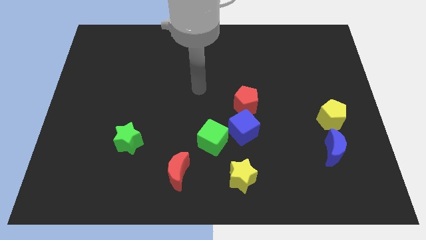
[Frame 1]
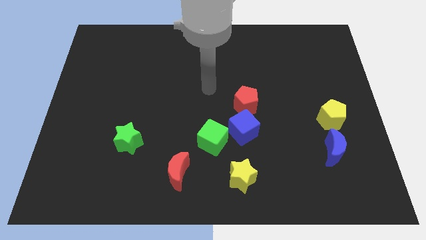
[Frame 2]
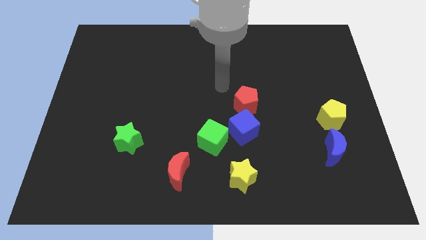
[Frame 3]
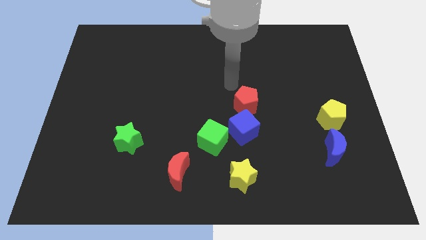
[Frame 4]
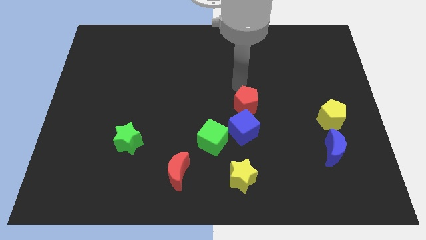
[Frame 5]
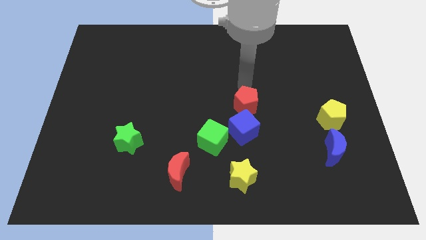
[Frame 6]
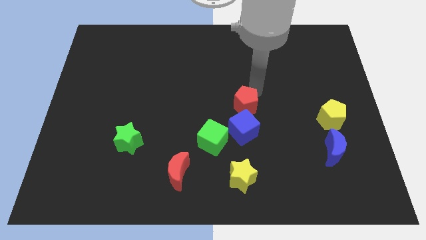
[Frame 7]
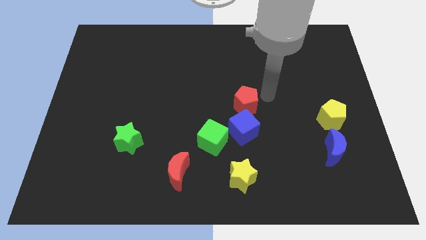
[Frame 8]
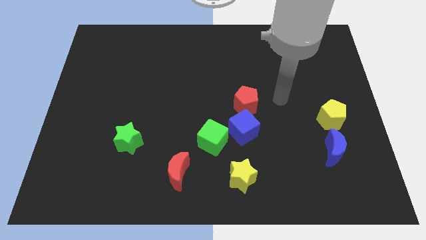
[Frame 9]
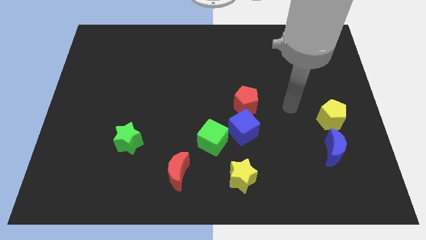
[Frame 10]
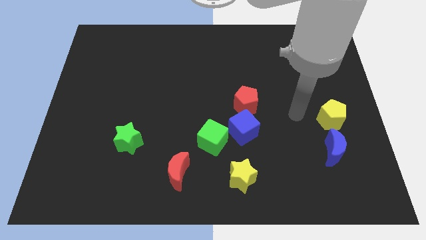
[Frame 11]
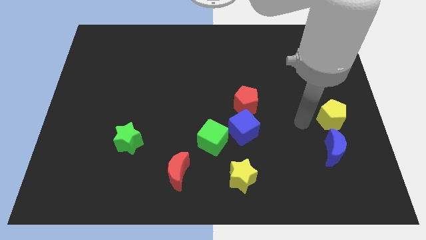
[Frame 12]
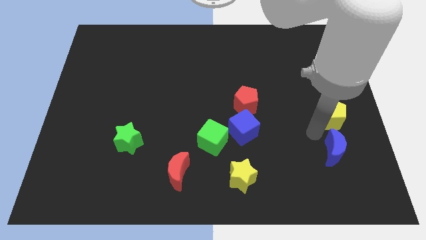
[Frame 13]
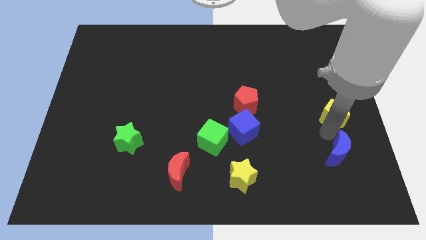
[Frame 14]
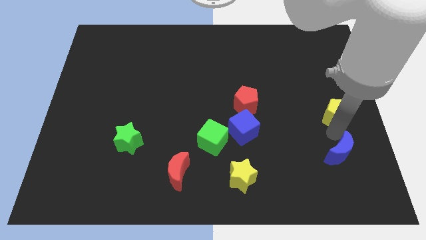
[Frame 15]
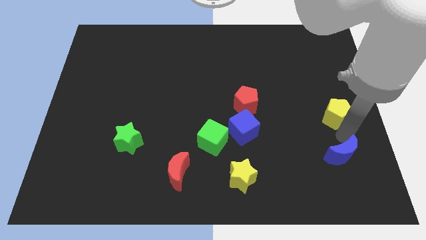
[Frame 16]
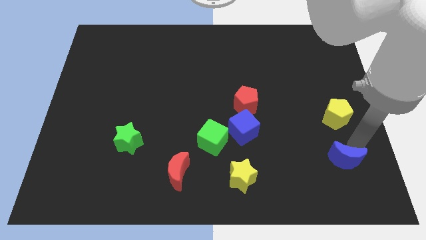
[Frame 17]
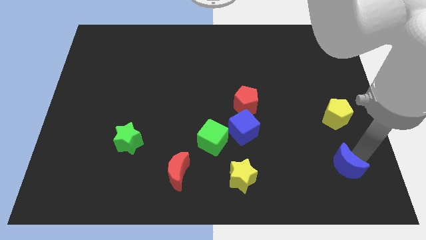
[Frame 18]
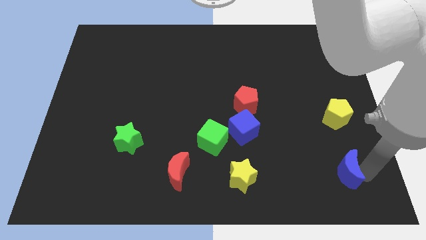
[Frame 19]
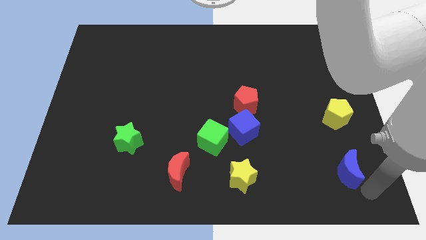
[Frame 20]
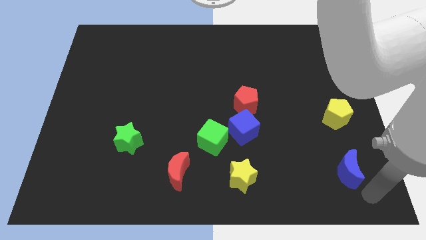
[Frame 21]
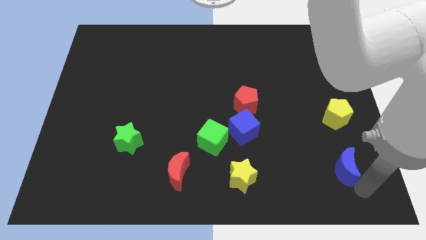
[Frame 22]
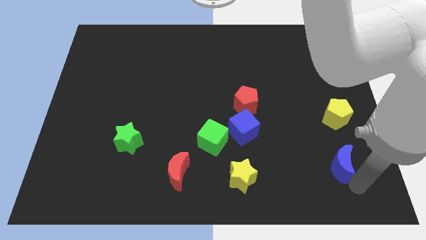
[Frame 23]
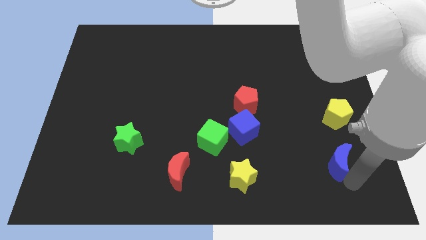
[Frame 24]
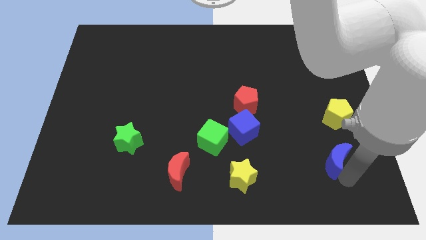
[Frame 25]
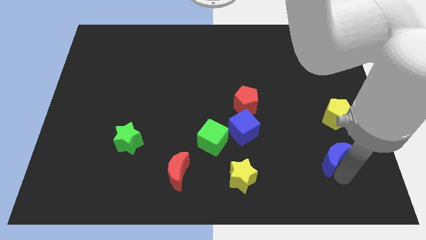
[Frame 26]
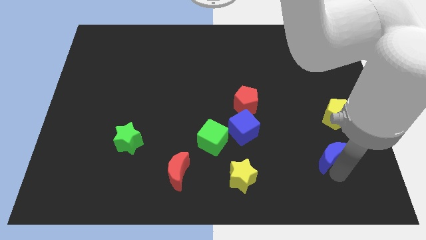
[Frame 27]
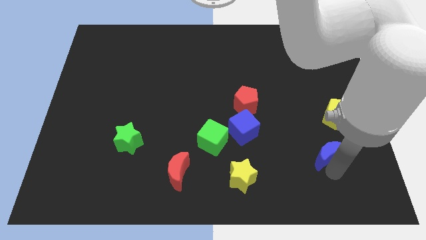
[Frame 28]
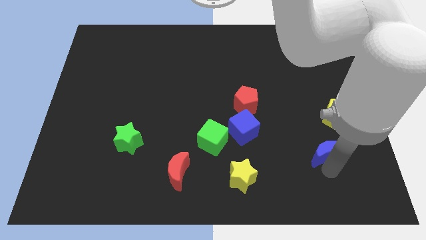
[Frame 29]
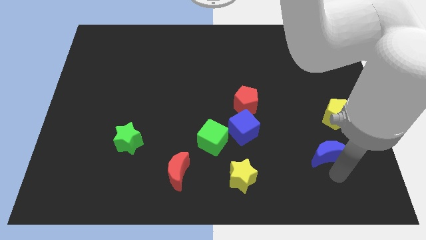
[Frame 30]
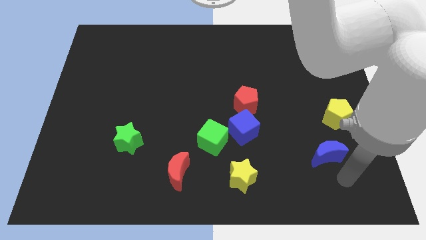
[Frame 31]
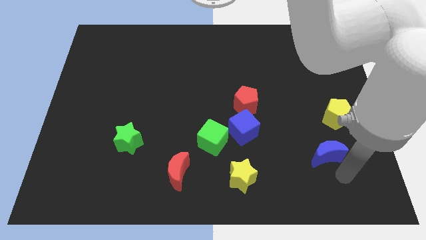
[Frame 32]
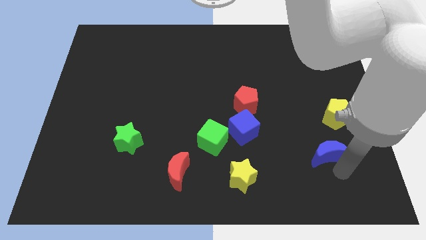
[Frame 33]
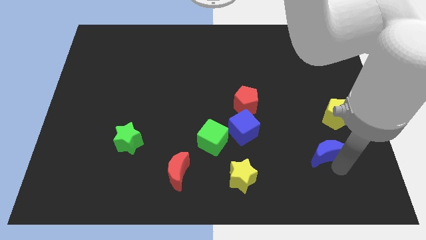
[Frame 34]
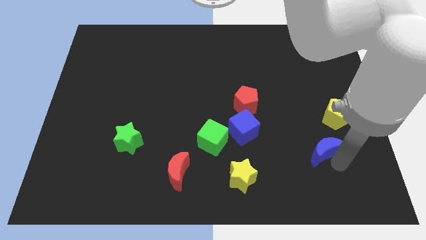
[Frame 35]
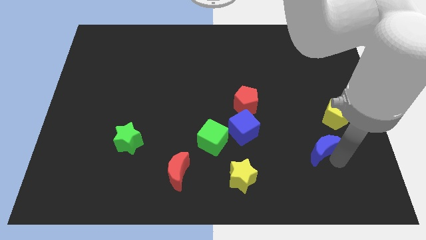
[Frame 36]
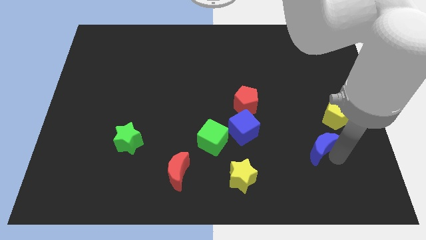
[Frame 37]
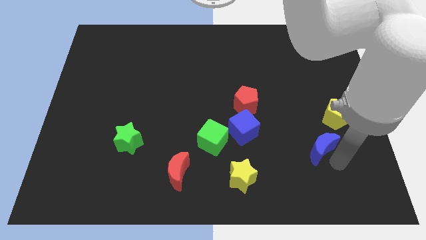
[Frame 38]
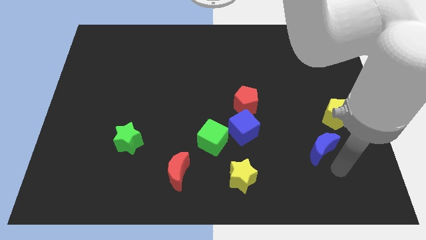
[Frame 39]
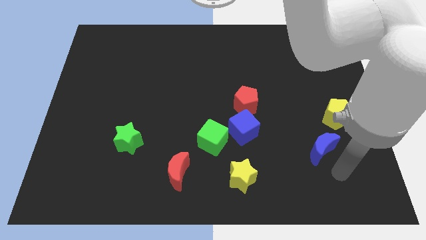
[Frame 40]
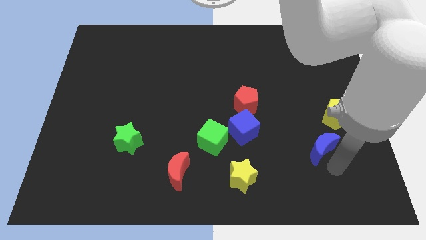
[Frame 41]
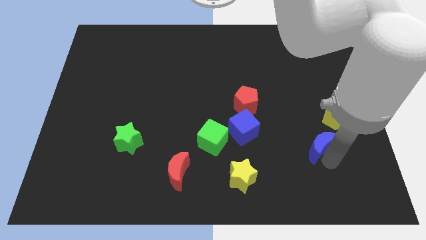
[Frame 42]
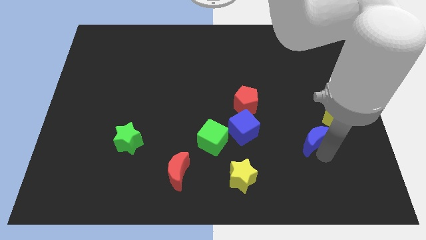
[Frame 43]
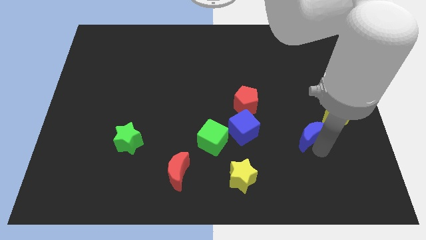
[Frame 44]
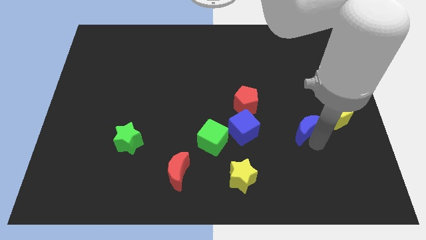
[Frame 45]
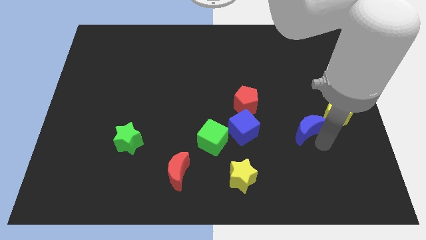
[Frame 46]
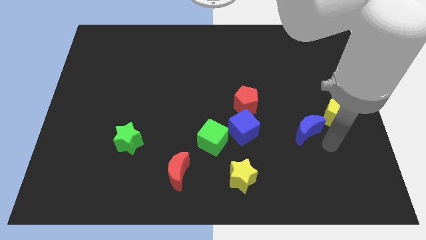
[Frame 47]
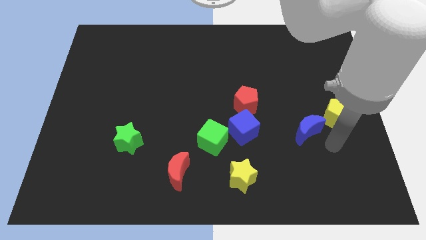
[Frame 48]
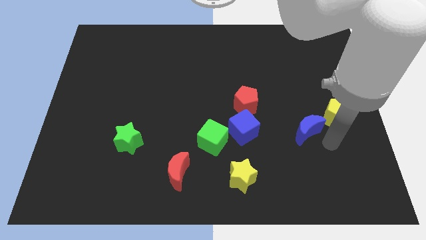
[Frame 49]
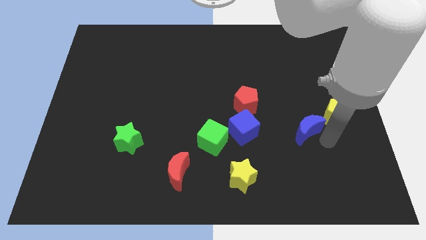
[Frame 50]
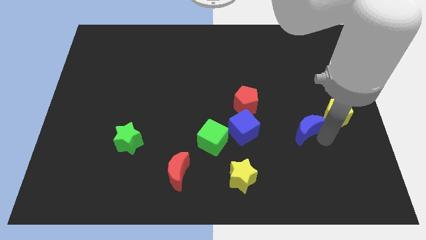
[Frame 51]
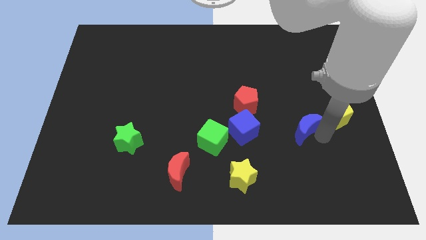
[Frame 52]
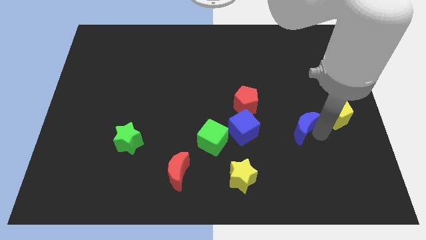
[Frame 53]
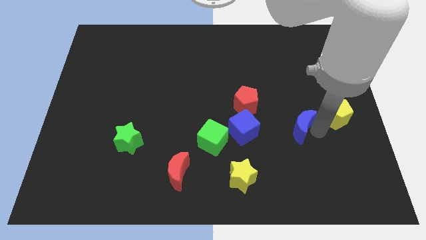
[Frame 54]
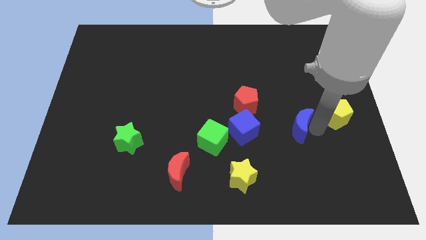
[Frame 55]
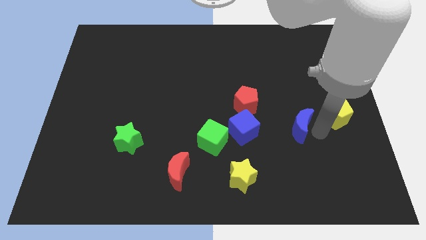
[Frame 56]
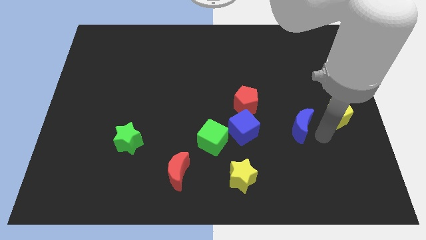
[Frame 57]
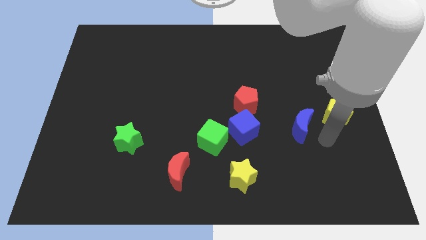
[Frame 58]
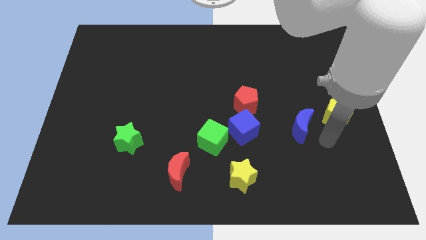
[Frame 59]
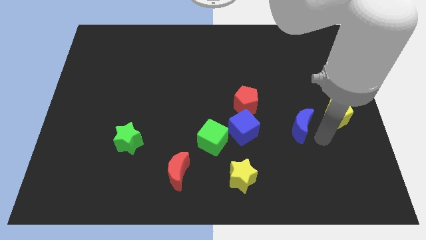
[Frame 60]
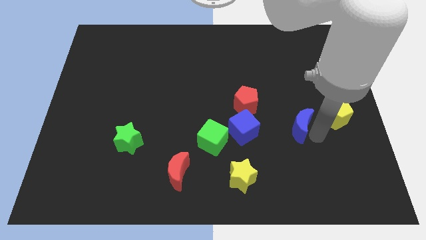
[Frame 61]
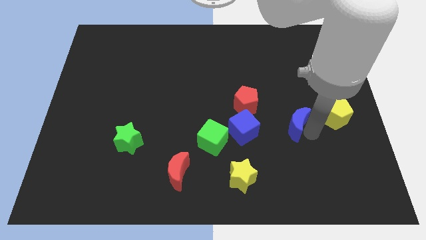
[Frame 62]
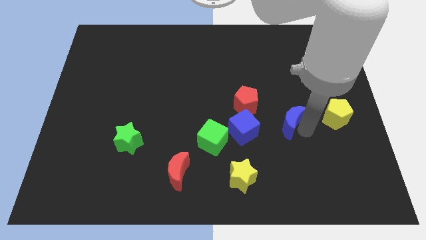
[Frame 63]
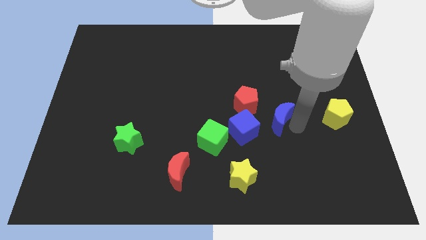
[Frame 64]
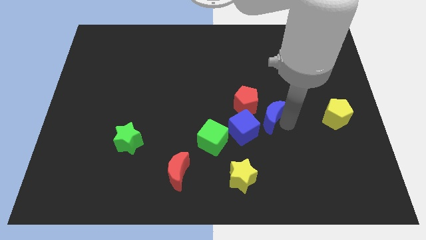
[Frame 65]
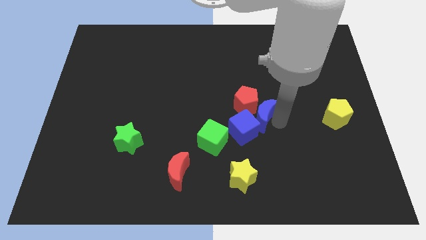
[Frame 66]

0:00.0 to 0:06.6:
push the blue moon next to the red pentagon
